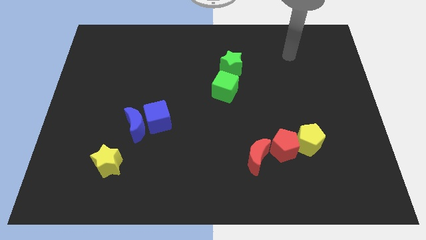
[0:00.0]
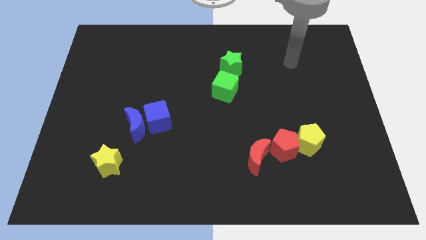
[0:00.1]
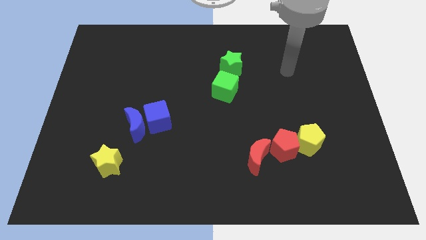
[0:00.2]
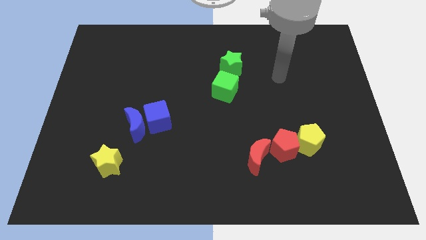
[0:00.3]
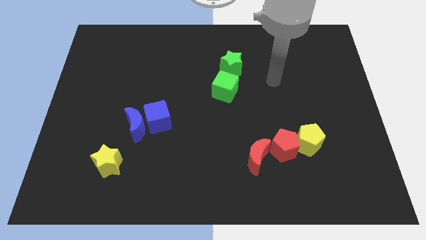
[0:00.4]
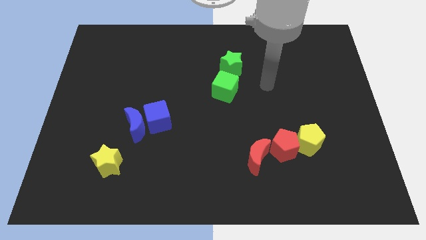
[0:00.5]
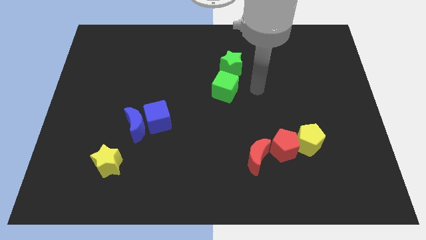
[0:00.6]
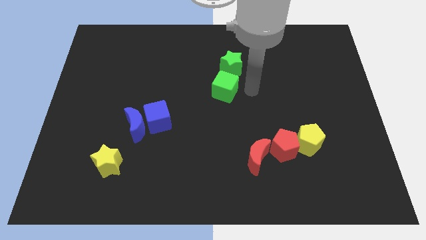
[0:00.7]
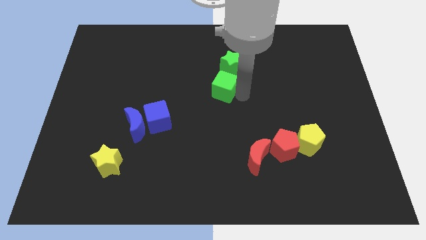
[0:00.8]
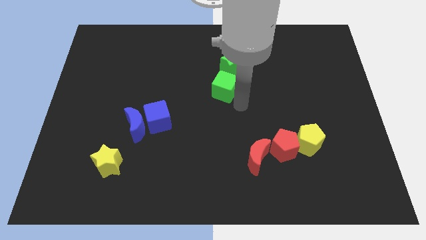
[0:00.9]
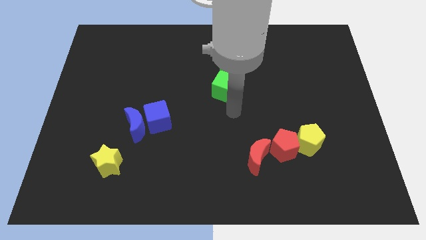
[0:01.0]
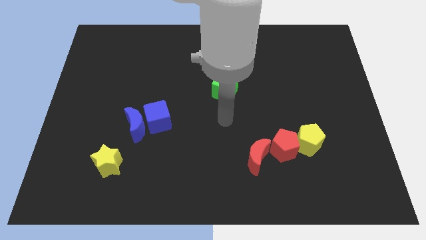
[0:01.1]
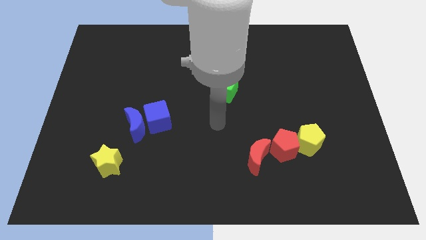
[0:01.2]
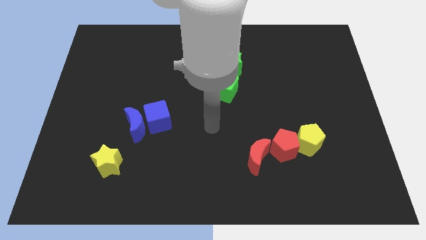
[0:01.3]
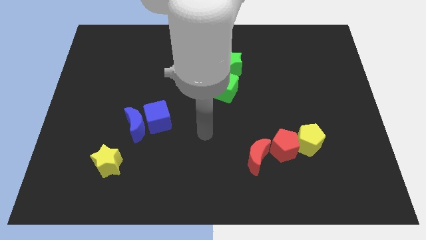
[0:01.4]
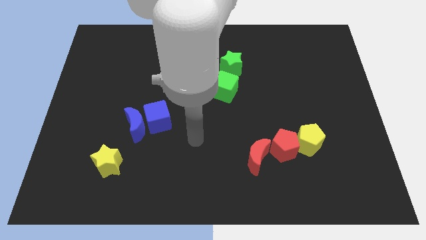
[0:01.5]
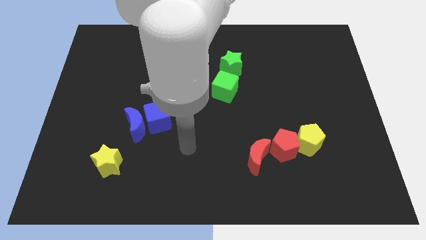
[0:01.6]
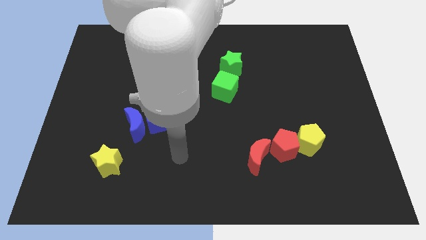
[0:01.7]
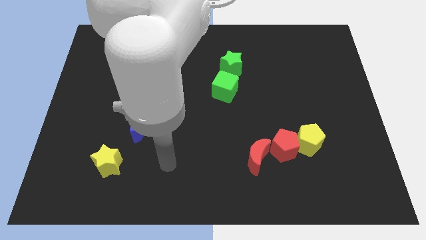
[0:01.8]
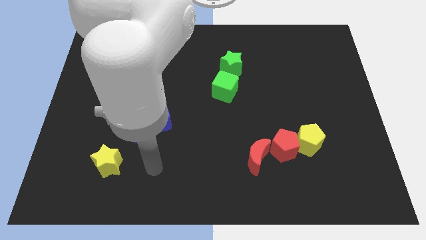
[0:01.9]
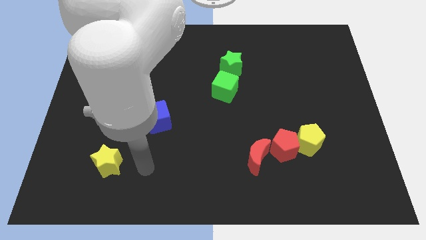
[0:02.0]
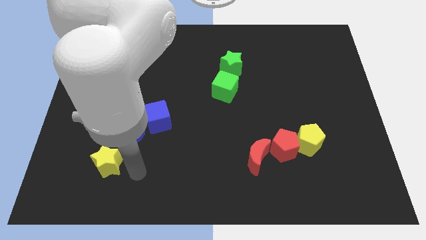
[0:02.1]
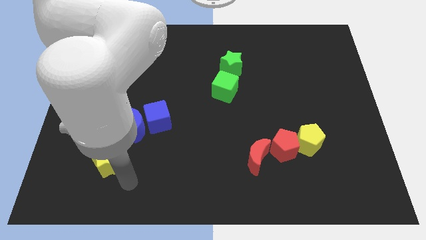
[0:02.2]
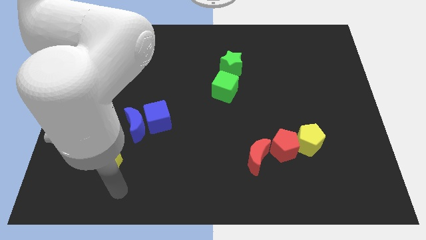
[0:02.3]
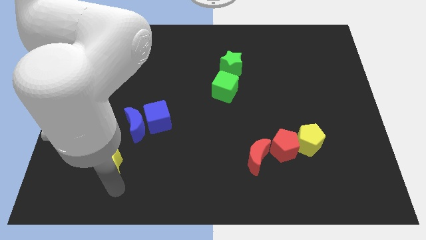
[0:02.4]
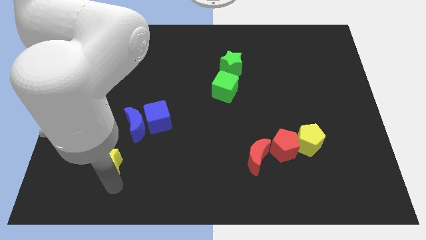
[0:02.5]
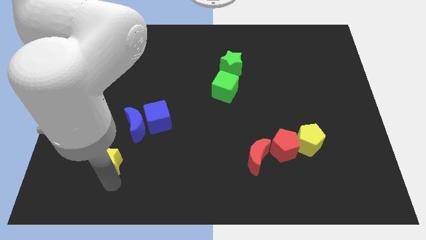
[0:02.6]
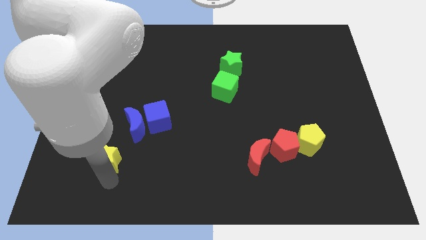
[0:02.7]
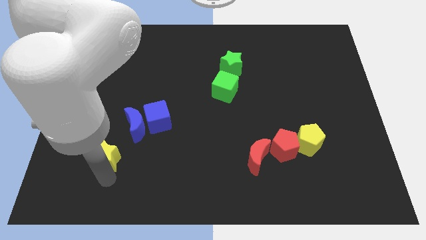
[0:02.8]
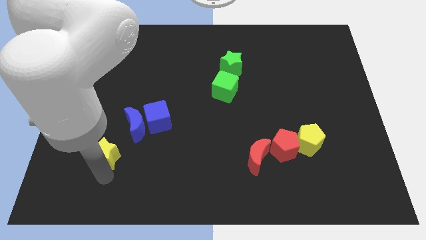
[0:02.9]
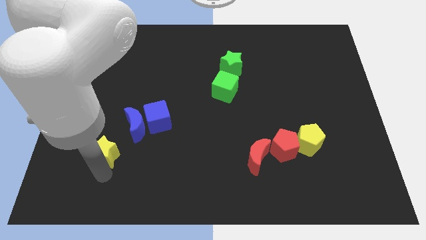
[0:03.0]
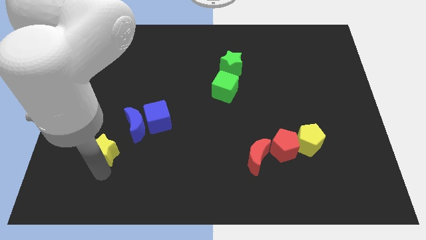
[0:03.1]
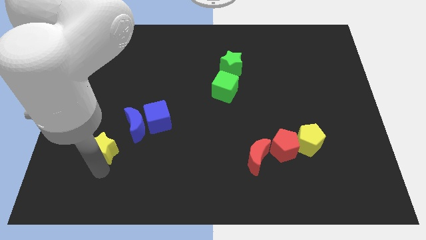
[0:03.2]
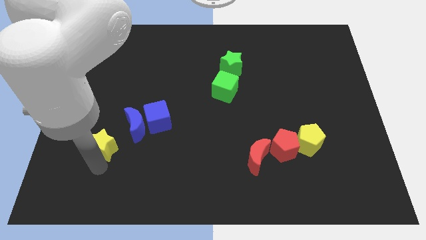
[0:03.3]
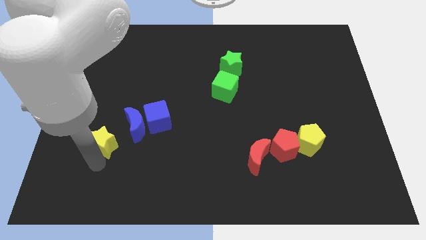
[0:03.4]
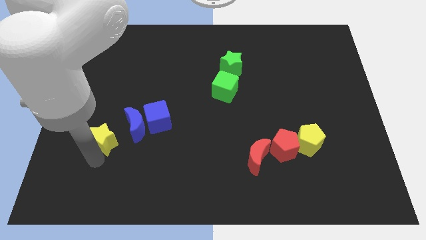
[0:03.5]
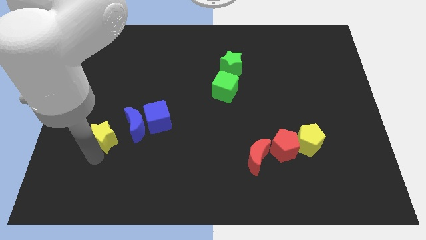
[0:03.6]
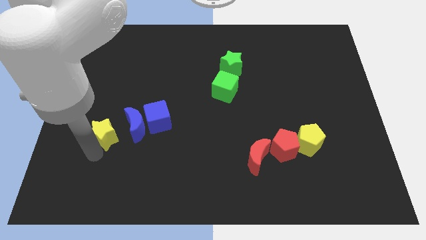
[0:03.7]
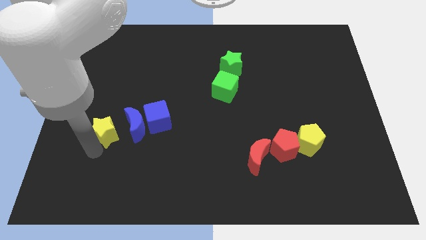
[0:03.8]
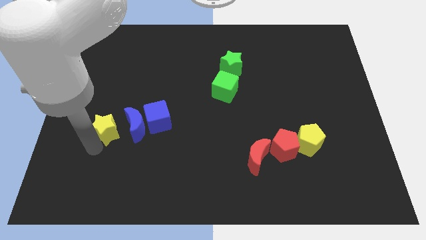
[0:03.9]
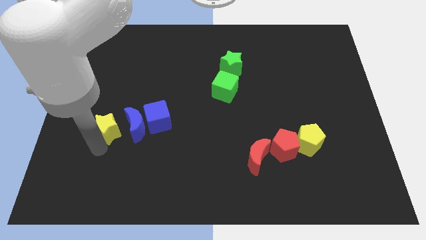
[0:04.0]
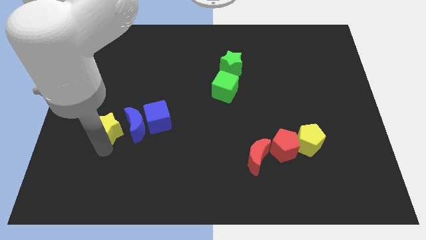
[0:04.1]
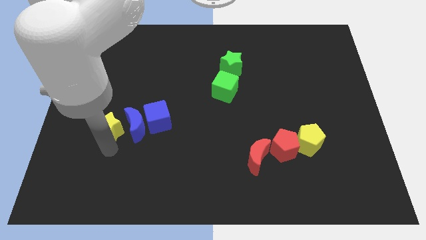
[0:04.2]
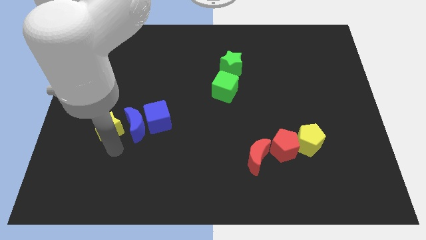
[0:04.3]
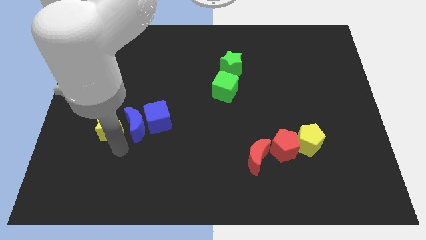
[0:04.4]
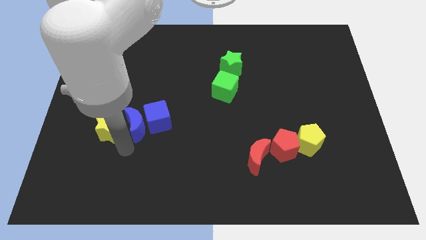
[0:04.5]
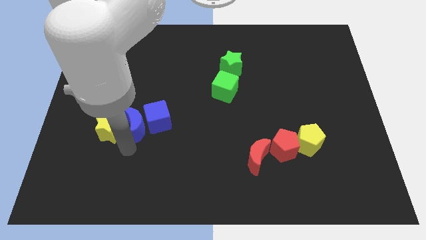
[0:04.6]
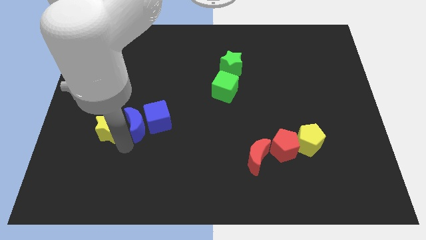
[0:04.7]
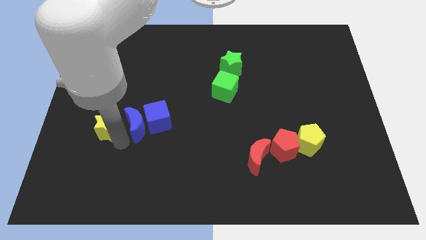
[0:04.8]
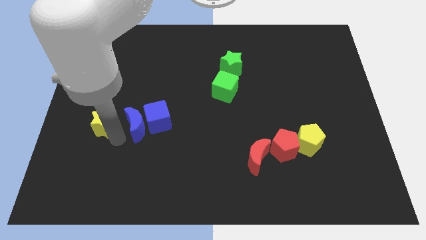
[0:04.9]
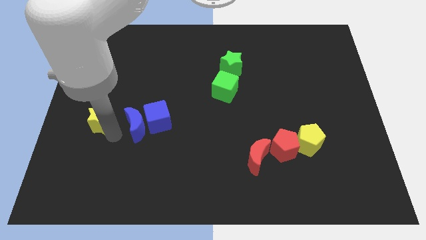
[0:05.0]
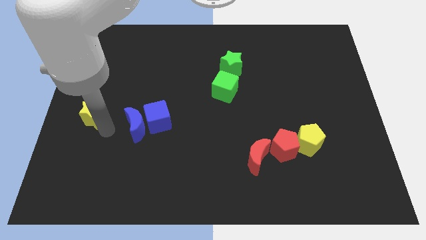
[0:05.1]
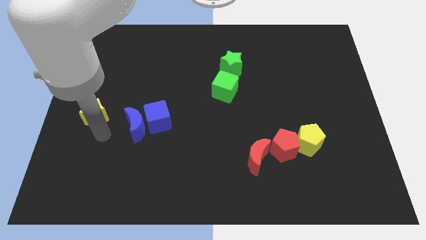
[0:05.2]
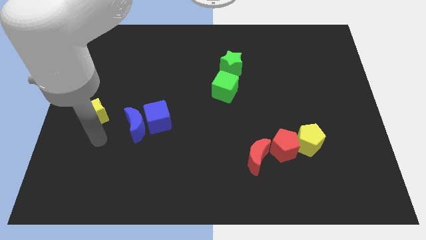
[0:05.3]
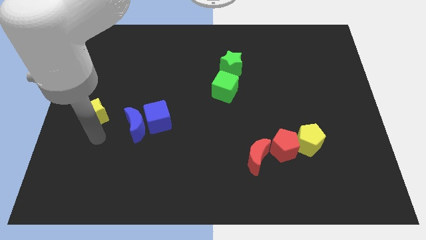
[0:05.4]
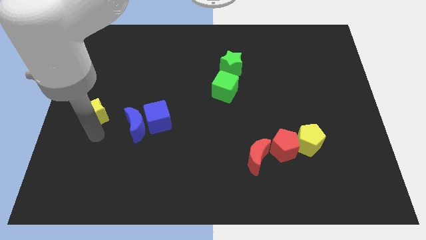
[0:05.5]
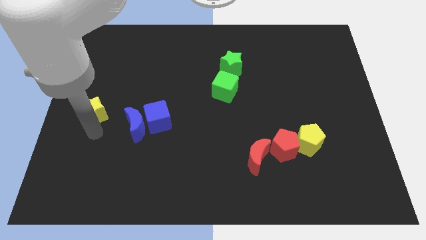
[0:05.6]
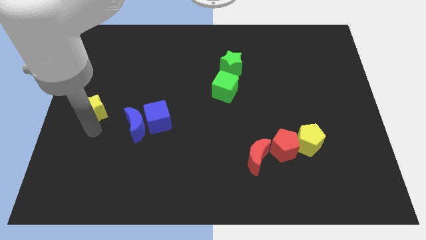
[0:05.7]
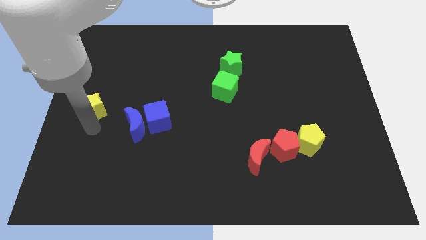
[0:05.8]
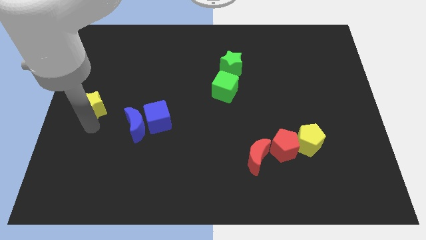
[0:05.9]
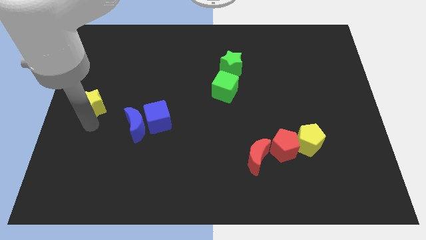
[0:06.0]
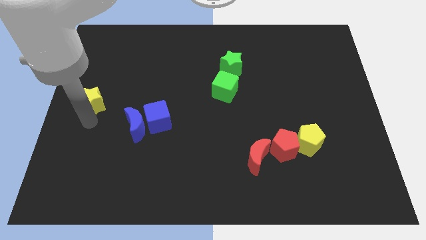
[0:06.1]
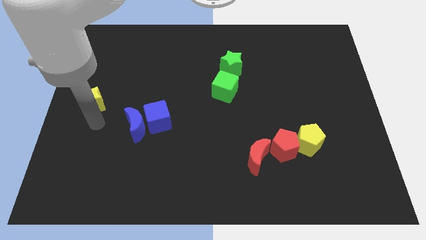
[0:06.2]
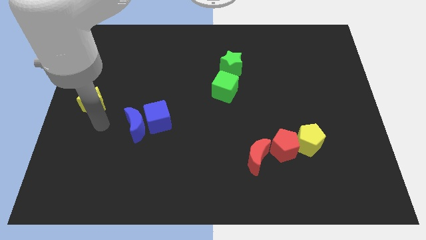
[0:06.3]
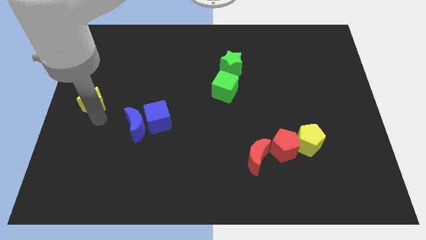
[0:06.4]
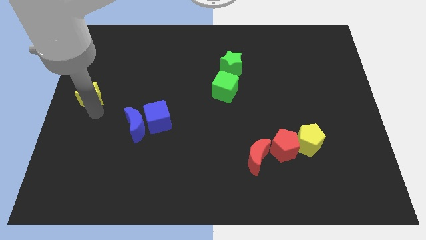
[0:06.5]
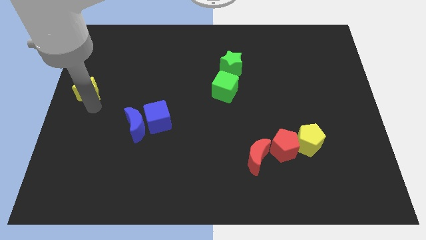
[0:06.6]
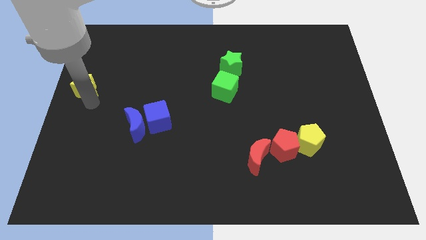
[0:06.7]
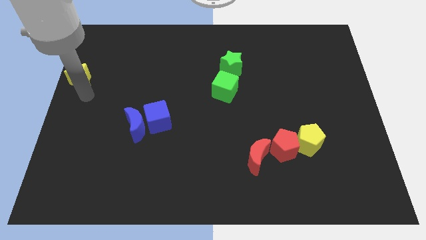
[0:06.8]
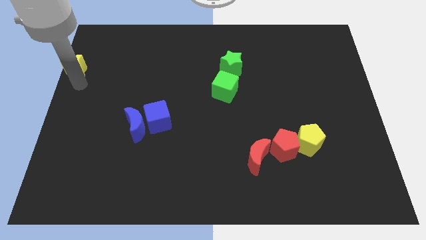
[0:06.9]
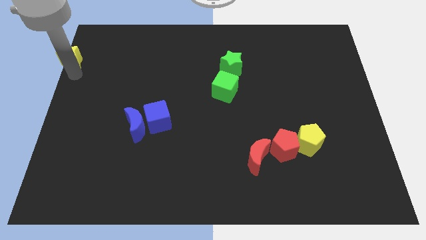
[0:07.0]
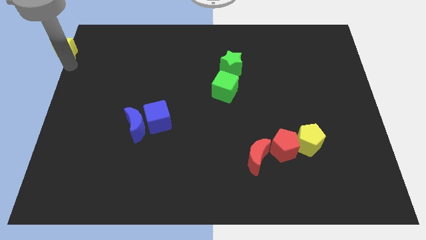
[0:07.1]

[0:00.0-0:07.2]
slide the yellow star to the top left
